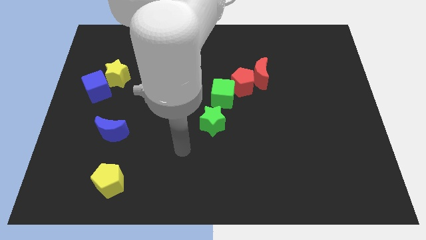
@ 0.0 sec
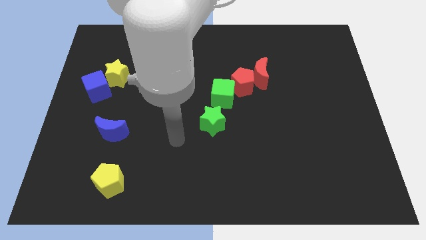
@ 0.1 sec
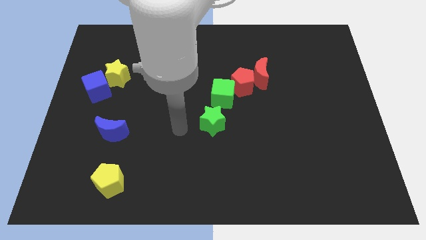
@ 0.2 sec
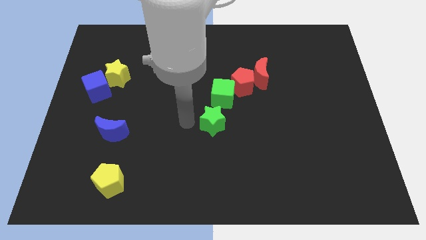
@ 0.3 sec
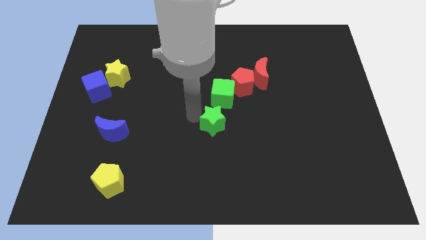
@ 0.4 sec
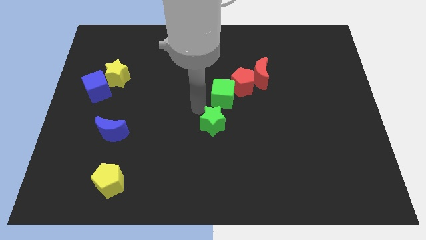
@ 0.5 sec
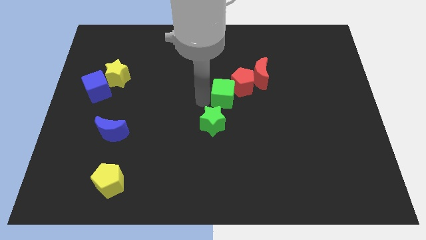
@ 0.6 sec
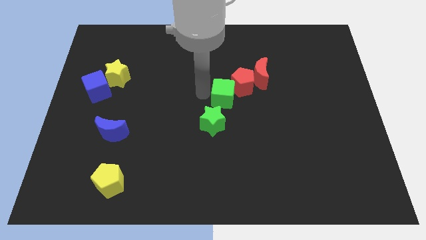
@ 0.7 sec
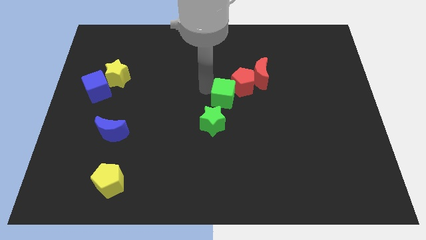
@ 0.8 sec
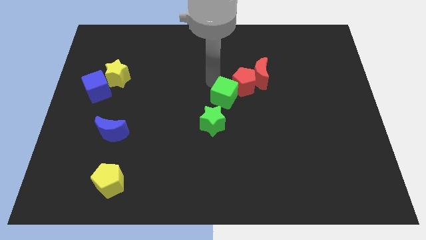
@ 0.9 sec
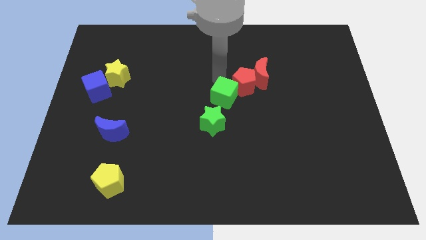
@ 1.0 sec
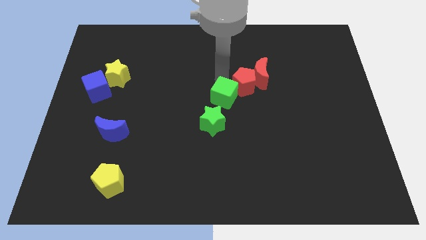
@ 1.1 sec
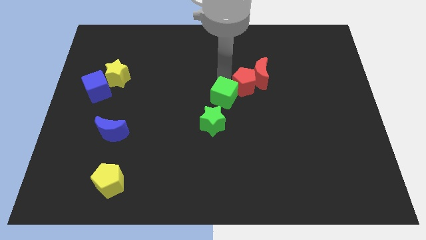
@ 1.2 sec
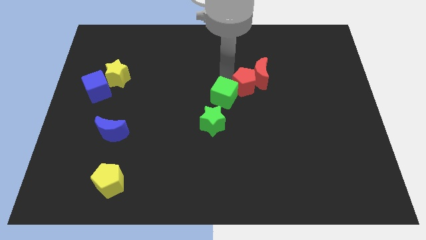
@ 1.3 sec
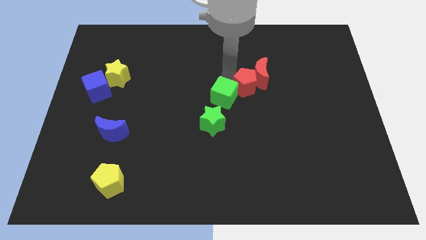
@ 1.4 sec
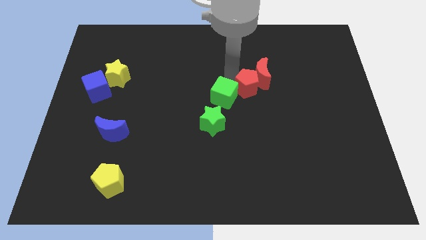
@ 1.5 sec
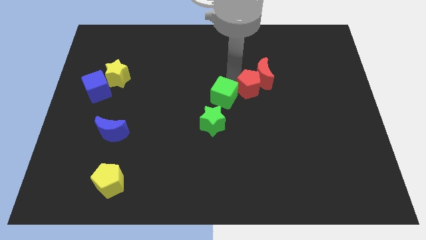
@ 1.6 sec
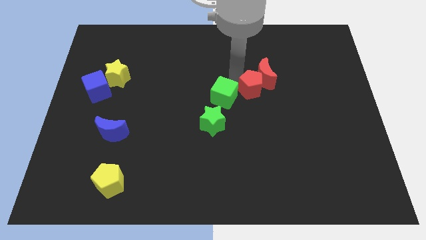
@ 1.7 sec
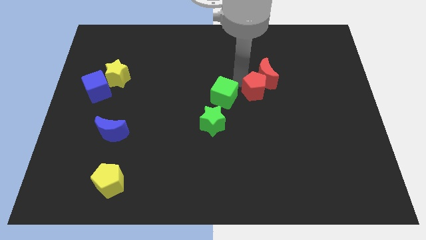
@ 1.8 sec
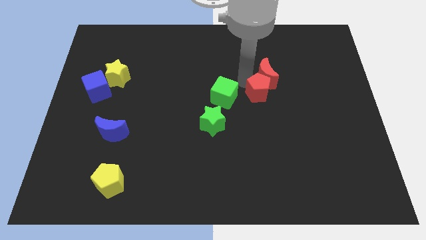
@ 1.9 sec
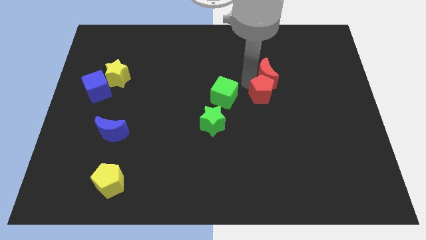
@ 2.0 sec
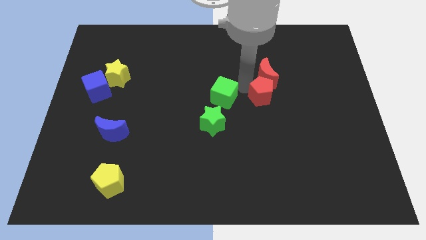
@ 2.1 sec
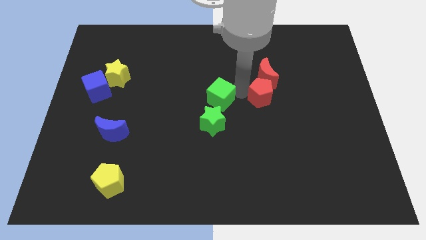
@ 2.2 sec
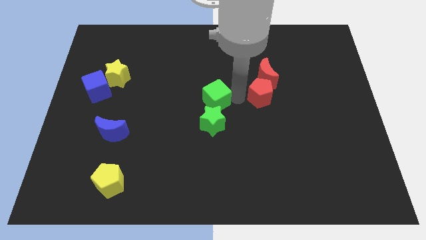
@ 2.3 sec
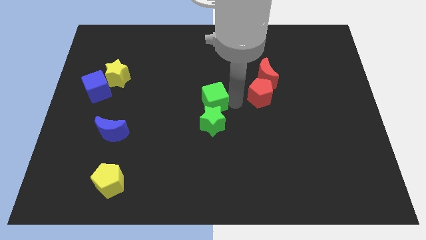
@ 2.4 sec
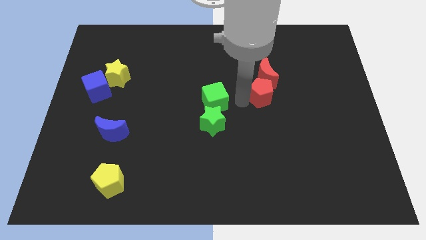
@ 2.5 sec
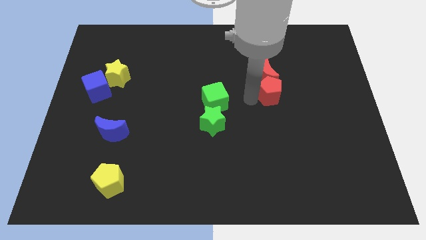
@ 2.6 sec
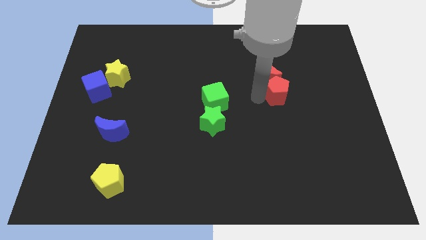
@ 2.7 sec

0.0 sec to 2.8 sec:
slightly slide the red pentagon to the right

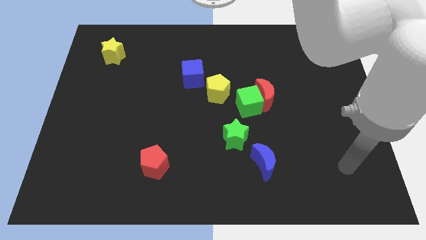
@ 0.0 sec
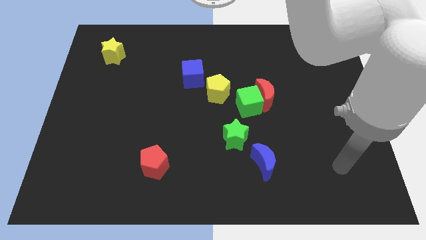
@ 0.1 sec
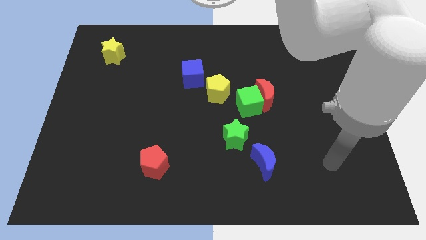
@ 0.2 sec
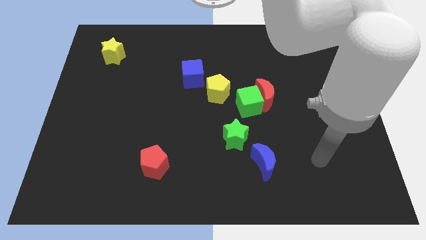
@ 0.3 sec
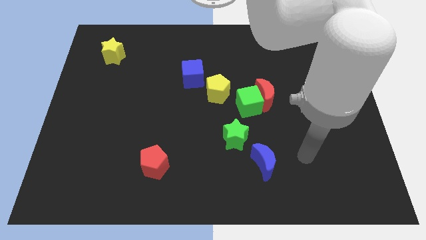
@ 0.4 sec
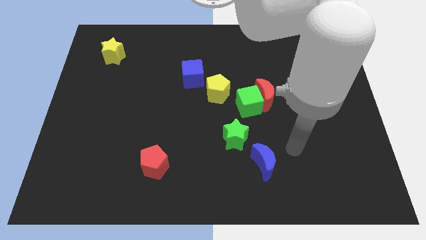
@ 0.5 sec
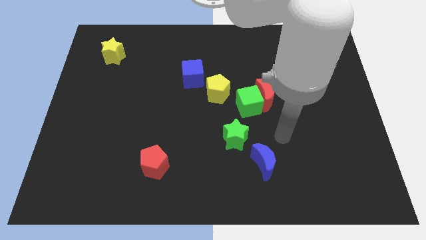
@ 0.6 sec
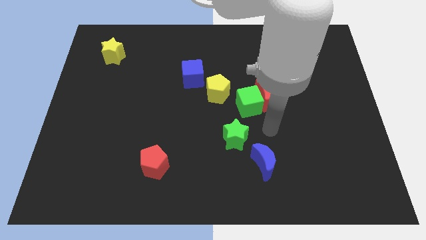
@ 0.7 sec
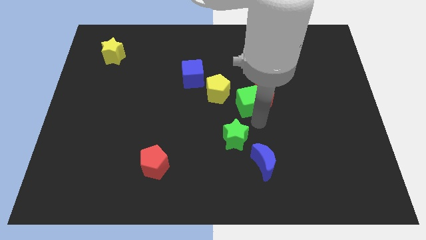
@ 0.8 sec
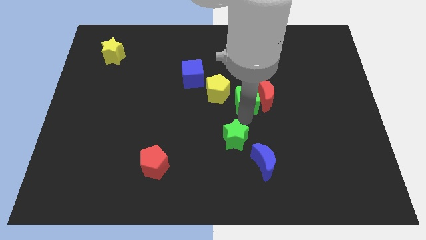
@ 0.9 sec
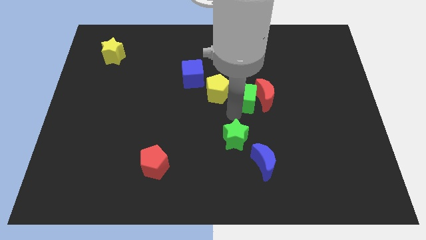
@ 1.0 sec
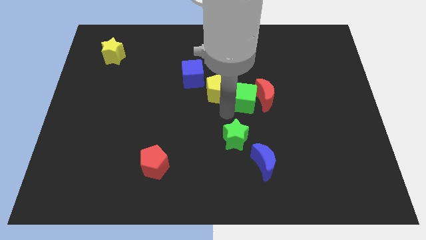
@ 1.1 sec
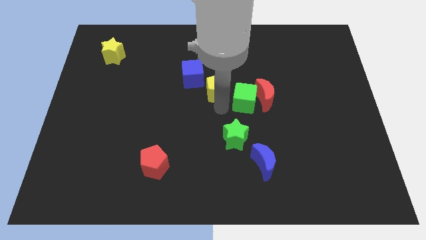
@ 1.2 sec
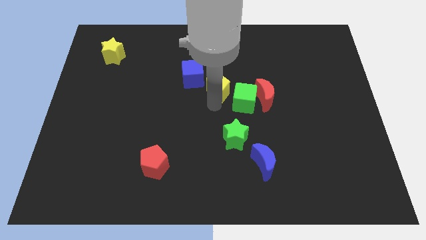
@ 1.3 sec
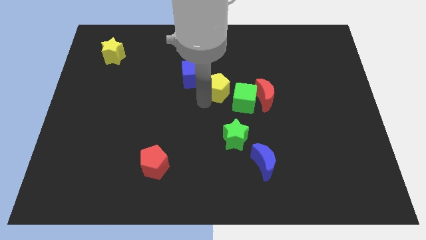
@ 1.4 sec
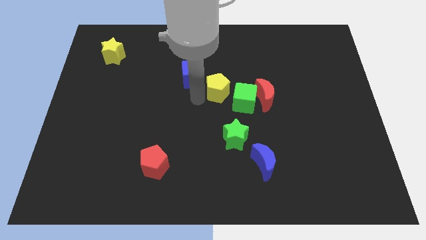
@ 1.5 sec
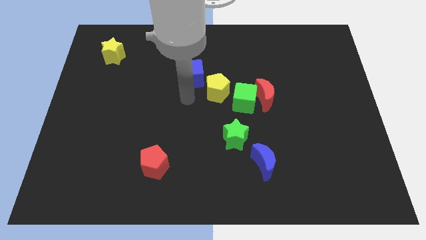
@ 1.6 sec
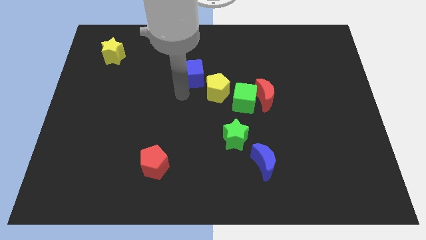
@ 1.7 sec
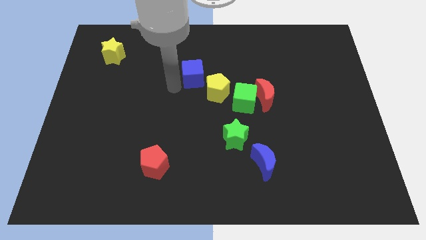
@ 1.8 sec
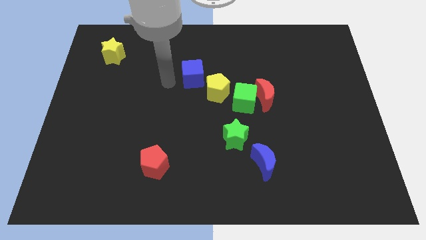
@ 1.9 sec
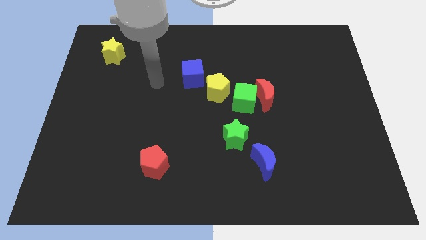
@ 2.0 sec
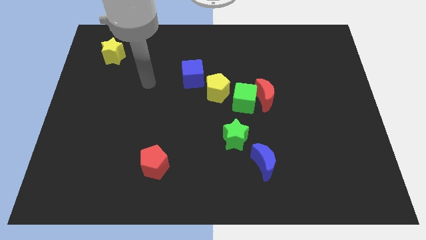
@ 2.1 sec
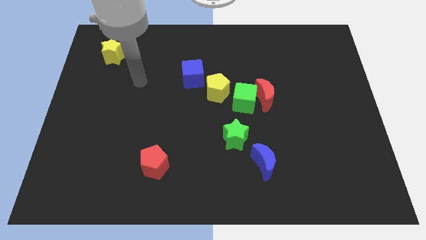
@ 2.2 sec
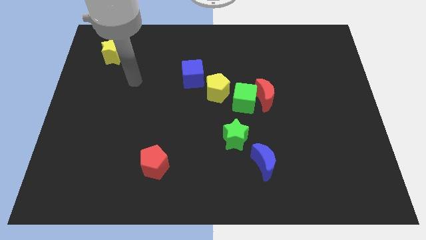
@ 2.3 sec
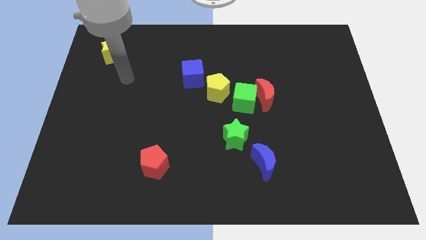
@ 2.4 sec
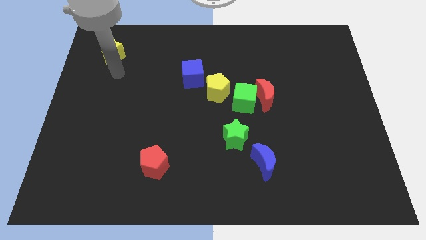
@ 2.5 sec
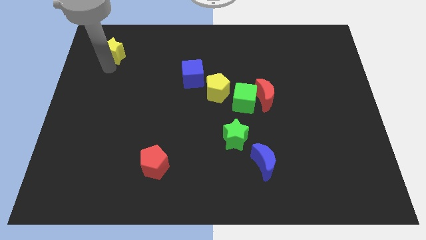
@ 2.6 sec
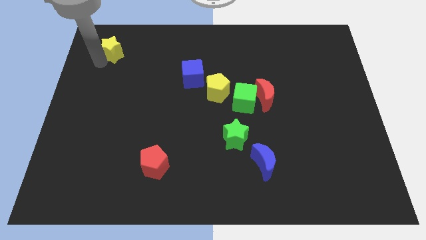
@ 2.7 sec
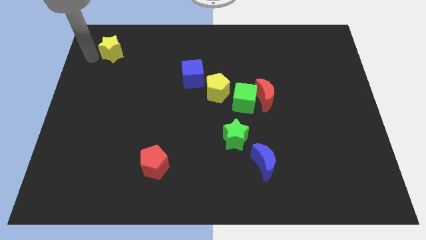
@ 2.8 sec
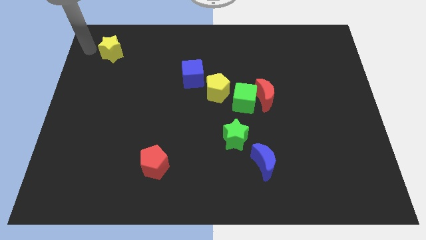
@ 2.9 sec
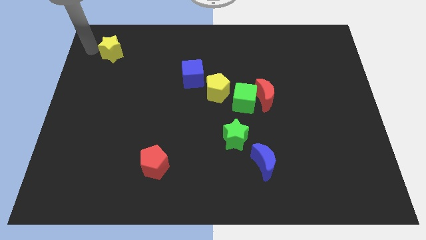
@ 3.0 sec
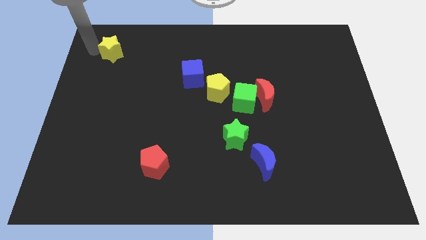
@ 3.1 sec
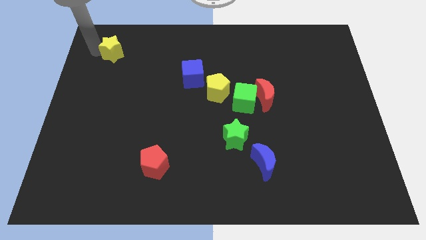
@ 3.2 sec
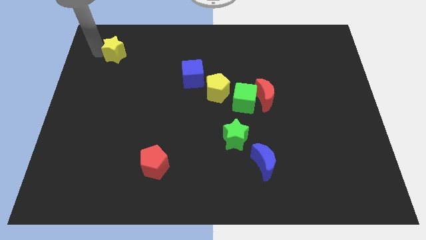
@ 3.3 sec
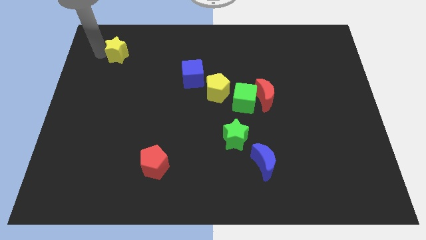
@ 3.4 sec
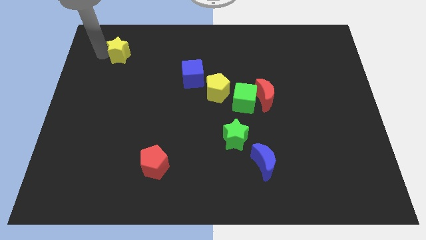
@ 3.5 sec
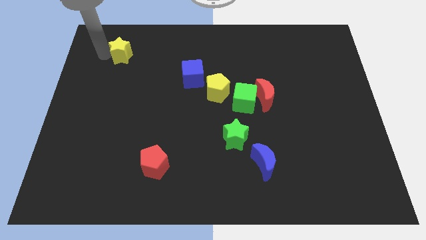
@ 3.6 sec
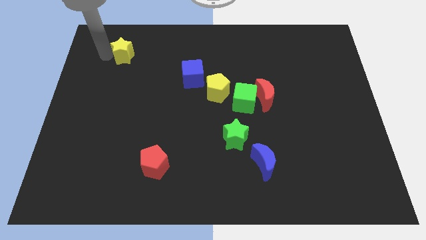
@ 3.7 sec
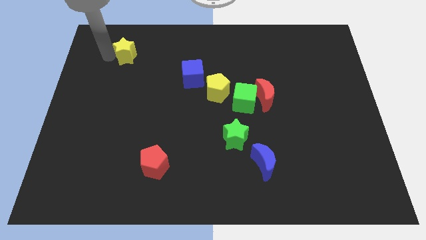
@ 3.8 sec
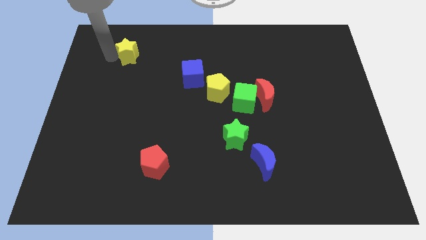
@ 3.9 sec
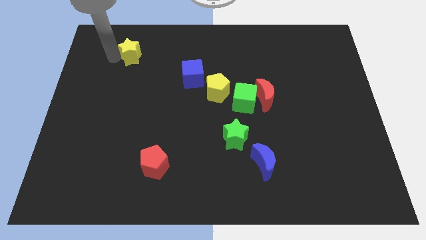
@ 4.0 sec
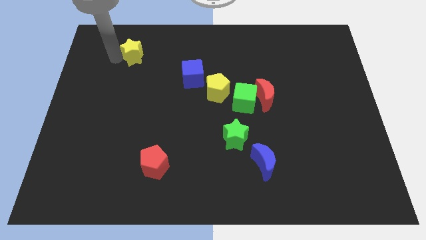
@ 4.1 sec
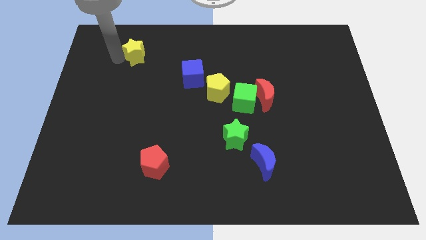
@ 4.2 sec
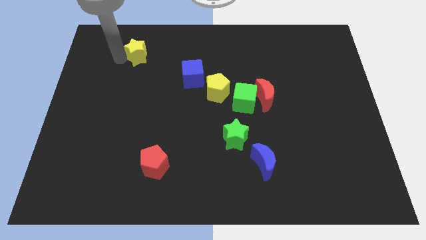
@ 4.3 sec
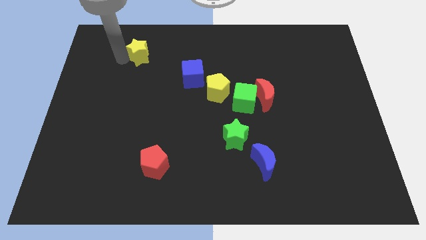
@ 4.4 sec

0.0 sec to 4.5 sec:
push the yellow star to the right a bit

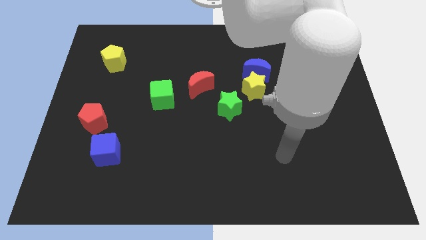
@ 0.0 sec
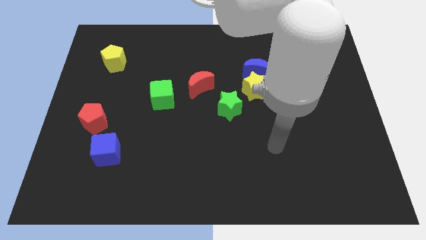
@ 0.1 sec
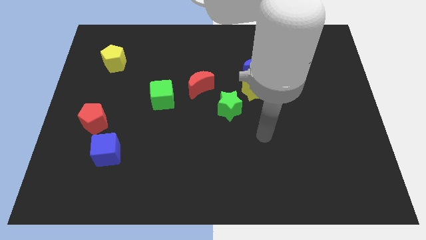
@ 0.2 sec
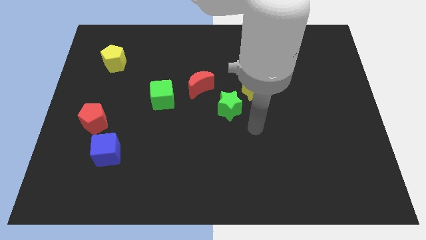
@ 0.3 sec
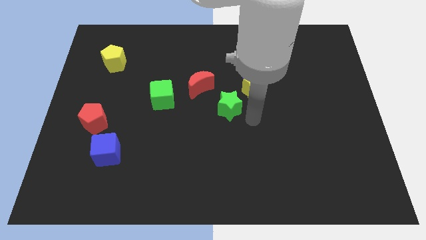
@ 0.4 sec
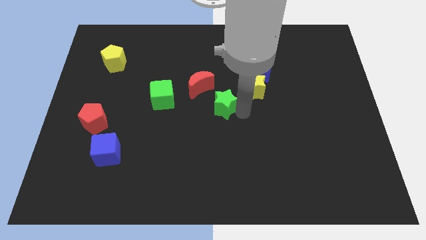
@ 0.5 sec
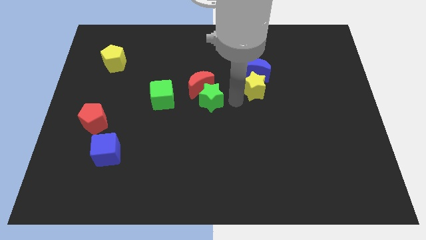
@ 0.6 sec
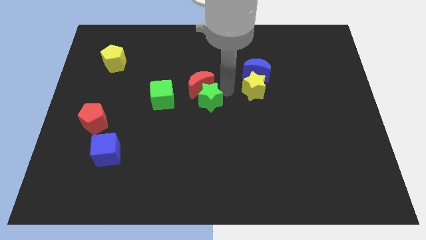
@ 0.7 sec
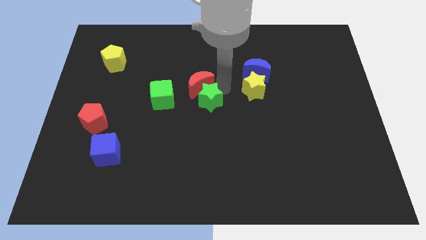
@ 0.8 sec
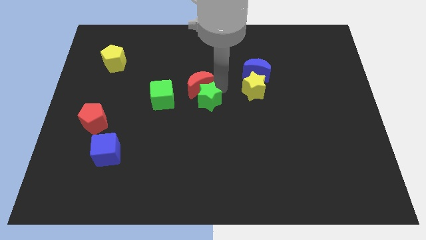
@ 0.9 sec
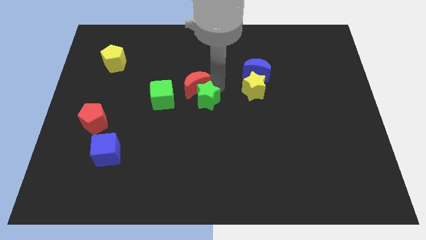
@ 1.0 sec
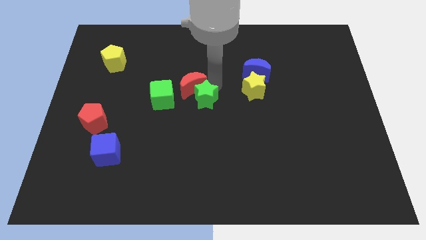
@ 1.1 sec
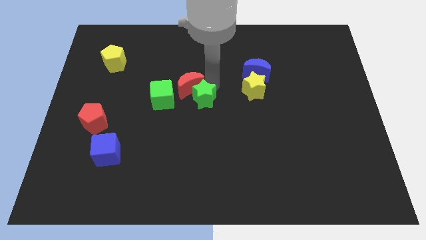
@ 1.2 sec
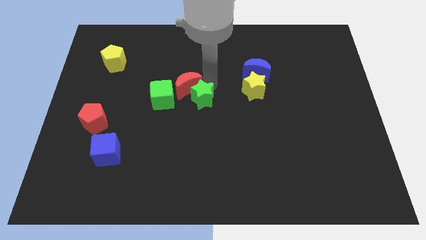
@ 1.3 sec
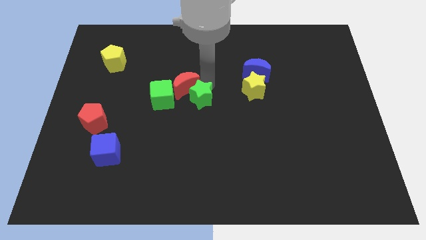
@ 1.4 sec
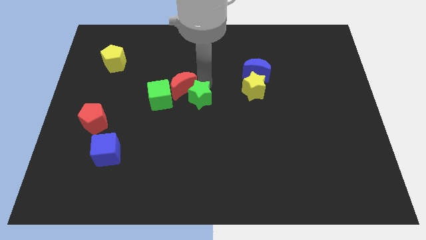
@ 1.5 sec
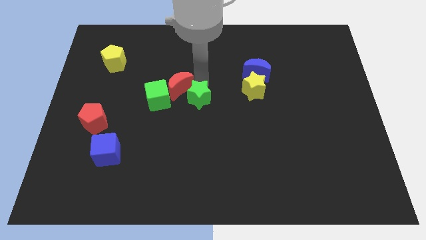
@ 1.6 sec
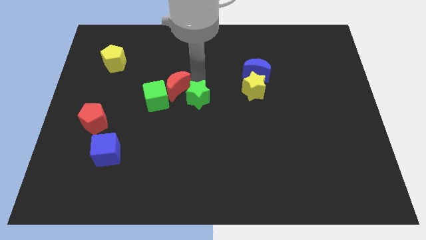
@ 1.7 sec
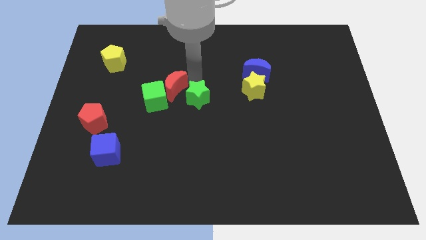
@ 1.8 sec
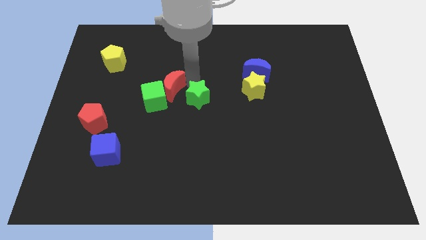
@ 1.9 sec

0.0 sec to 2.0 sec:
move the red moon a bit to the left
